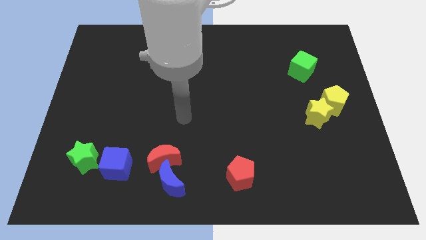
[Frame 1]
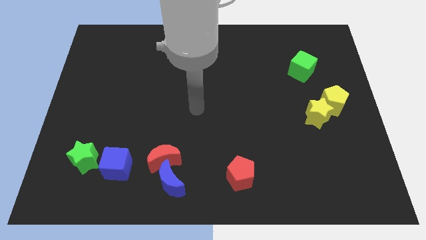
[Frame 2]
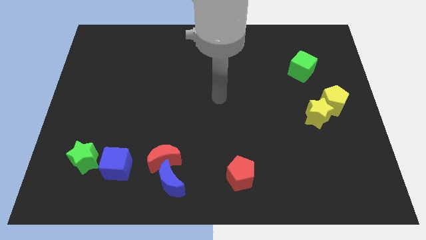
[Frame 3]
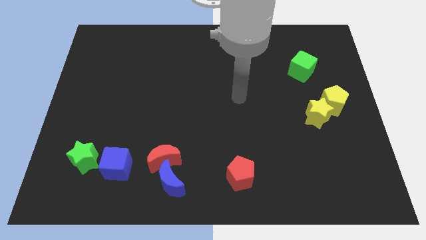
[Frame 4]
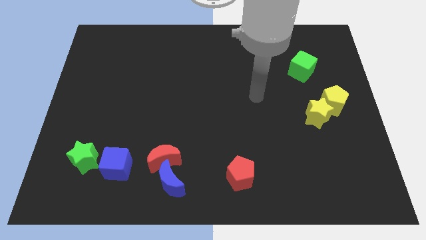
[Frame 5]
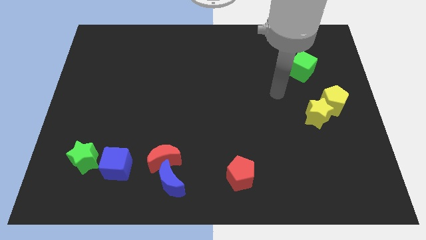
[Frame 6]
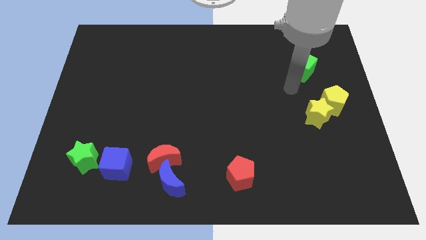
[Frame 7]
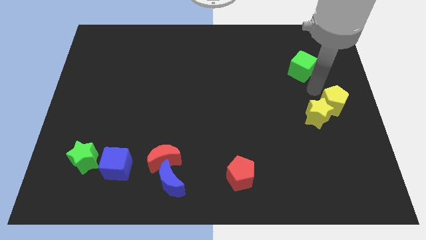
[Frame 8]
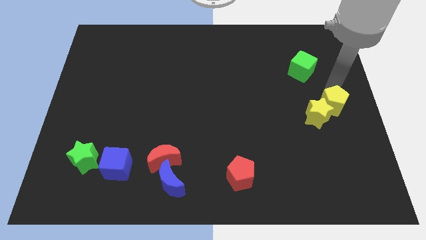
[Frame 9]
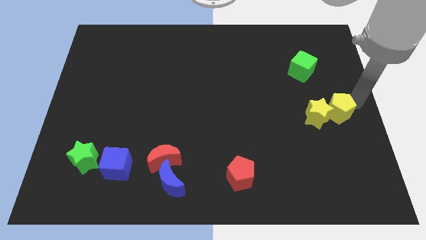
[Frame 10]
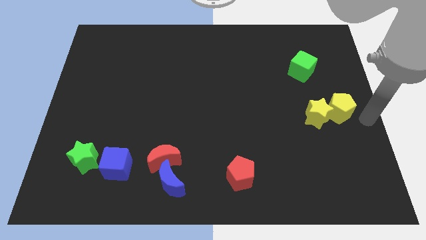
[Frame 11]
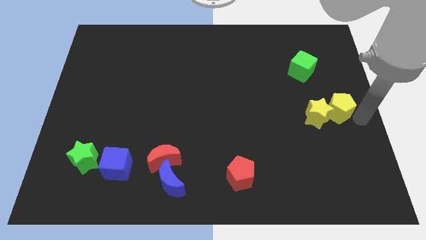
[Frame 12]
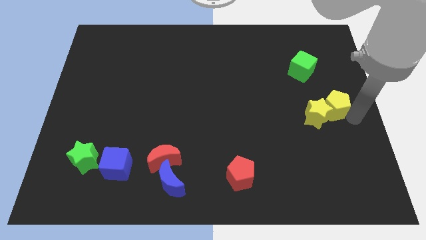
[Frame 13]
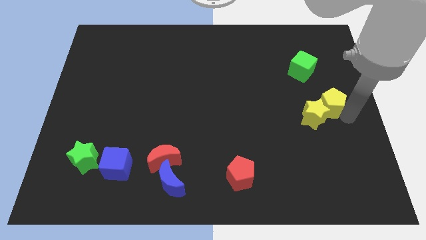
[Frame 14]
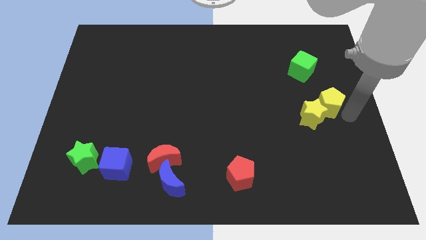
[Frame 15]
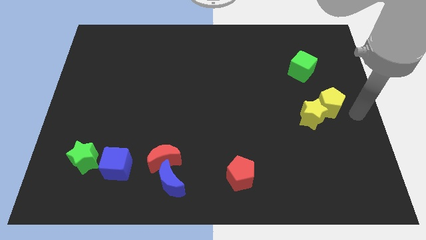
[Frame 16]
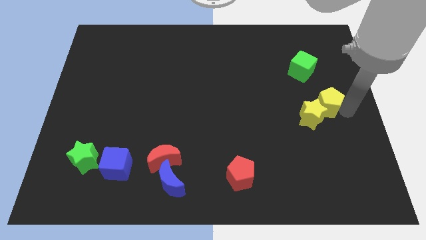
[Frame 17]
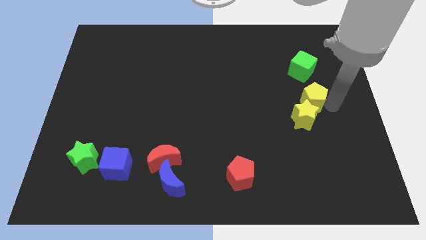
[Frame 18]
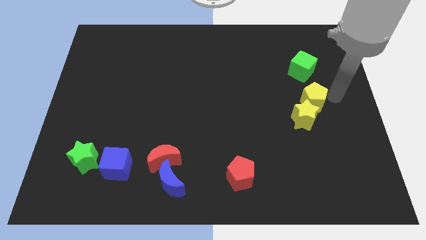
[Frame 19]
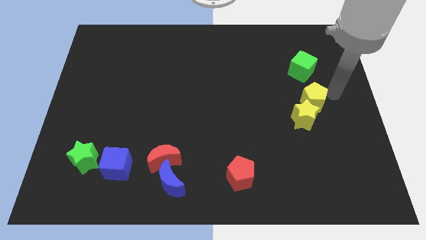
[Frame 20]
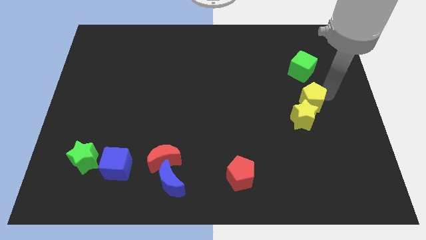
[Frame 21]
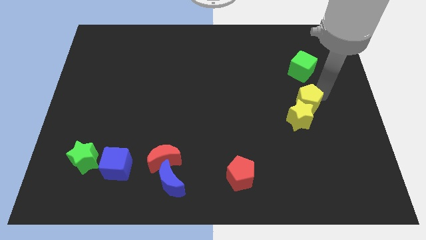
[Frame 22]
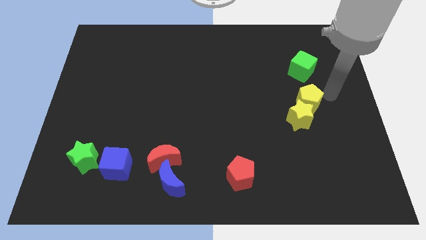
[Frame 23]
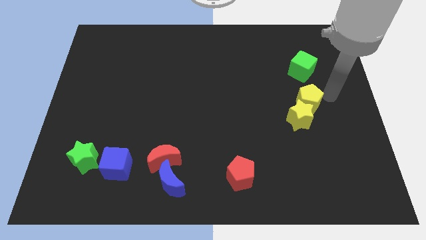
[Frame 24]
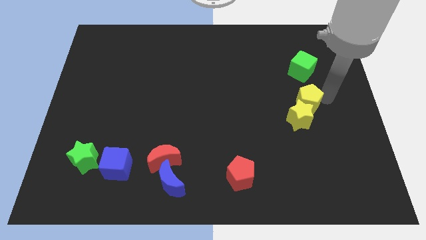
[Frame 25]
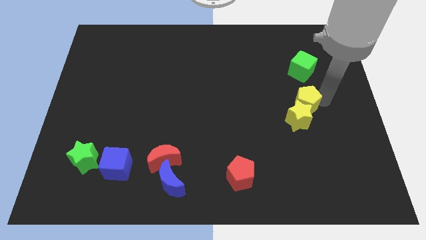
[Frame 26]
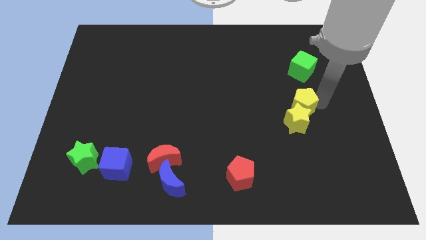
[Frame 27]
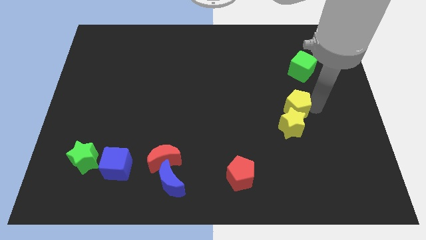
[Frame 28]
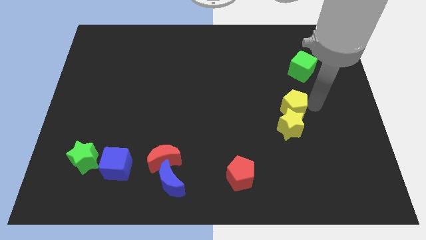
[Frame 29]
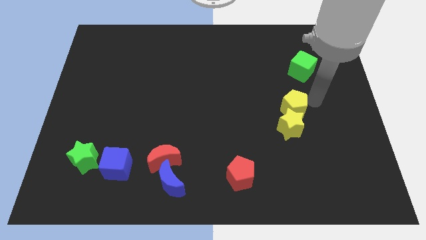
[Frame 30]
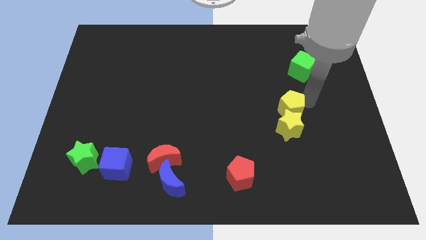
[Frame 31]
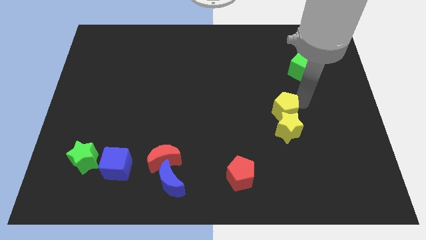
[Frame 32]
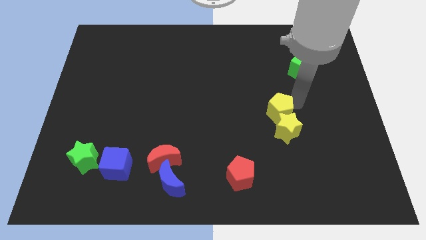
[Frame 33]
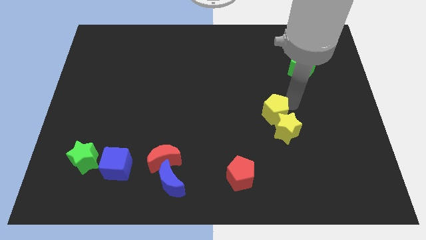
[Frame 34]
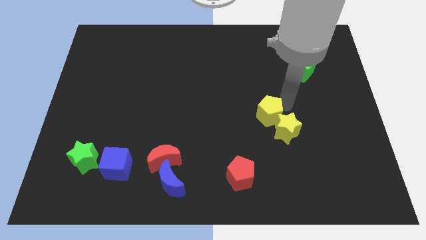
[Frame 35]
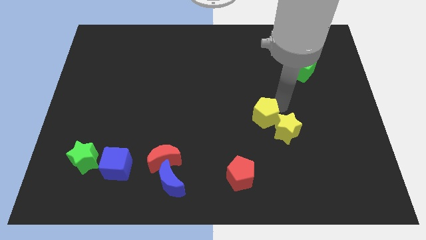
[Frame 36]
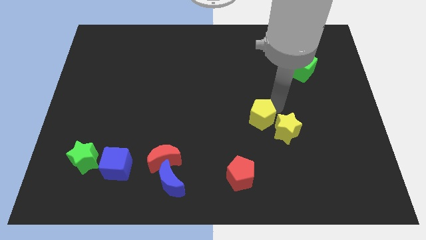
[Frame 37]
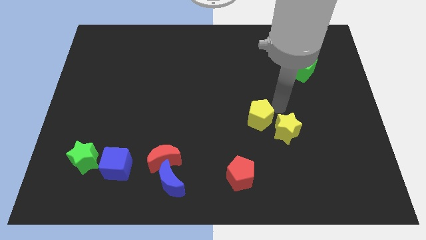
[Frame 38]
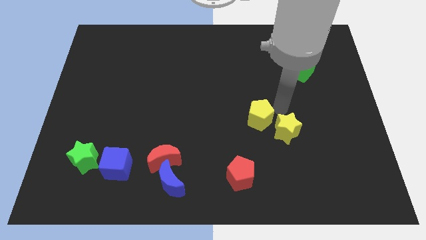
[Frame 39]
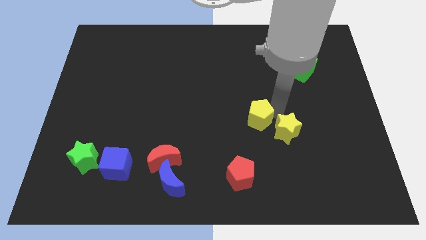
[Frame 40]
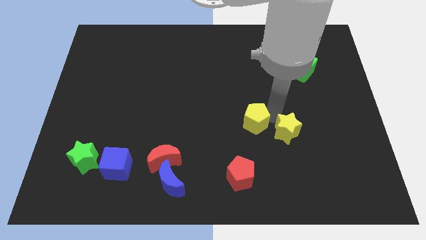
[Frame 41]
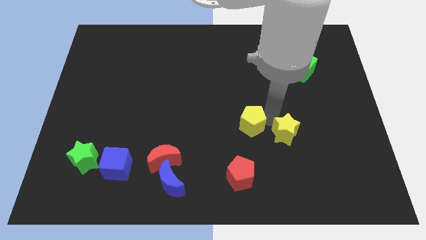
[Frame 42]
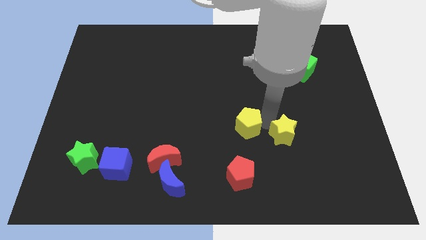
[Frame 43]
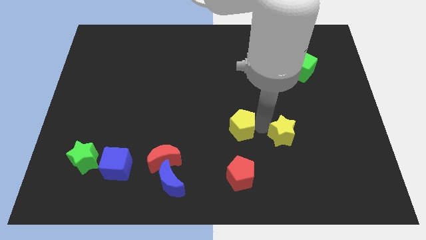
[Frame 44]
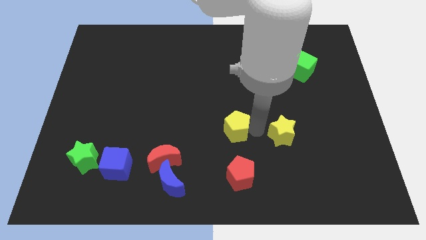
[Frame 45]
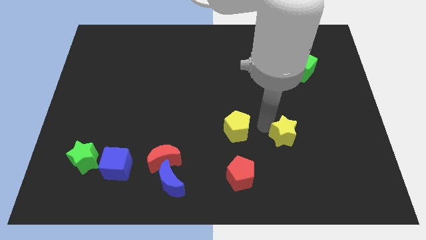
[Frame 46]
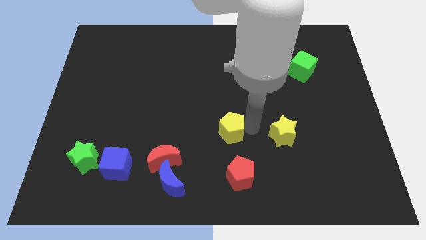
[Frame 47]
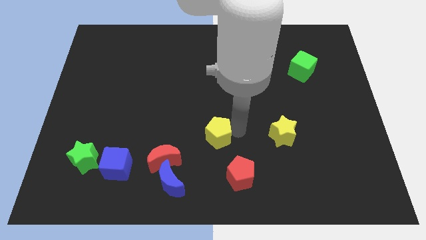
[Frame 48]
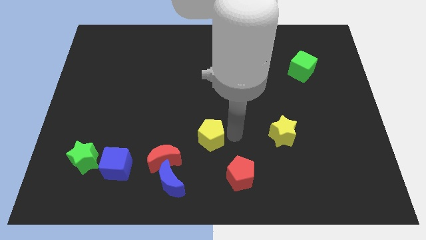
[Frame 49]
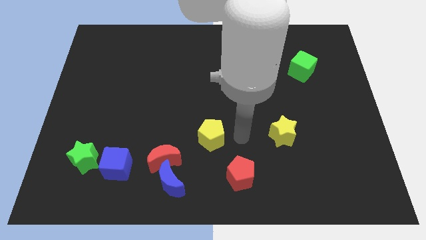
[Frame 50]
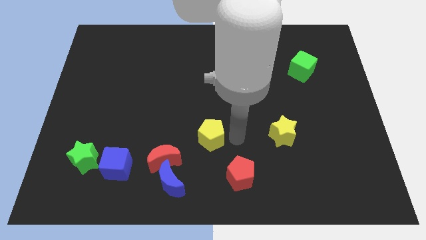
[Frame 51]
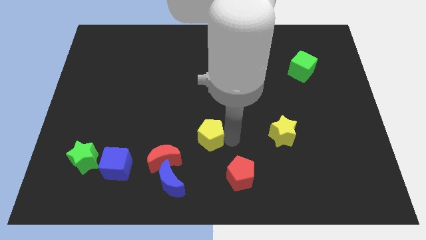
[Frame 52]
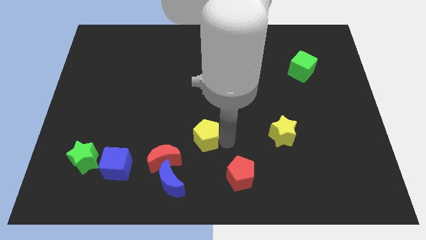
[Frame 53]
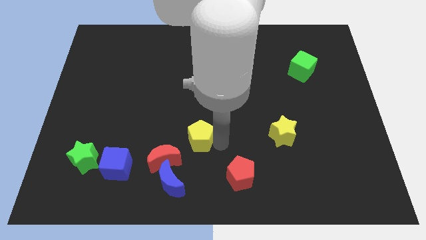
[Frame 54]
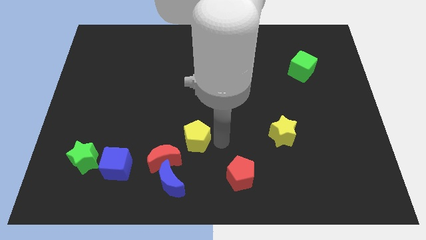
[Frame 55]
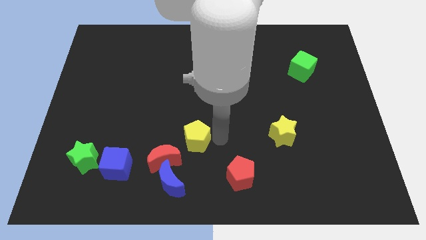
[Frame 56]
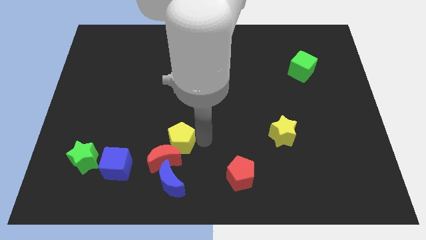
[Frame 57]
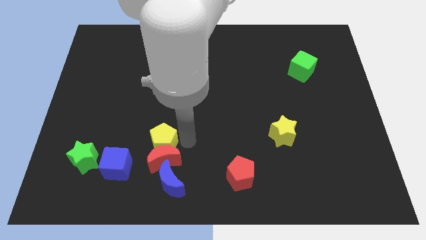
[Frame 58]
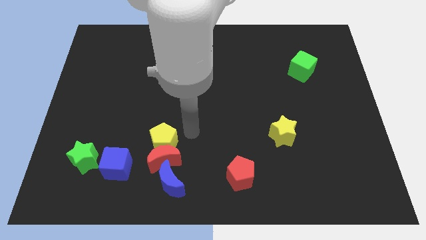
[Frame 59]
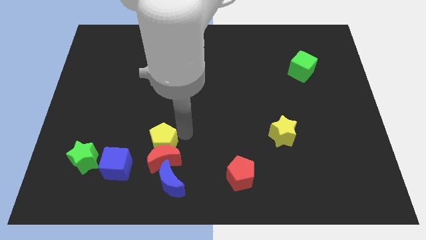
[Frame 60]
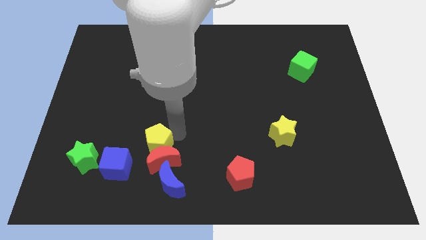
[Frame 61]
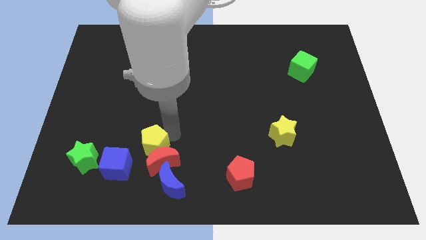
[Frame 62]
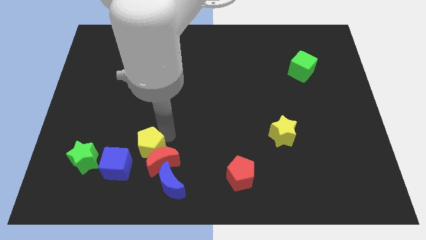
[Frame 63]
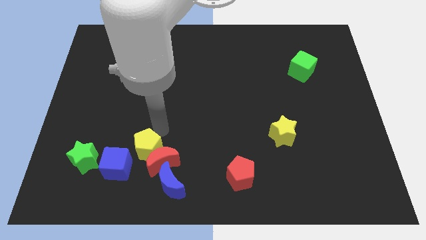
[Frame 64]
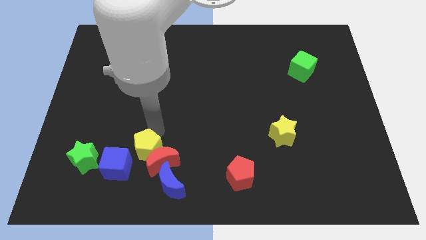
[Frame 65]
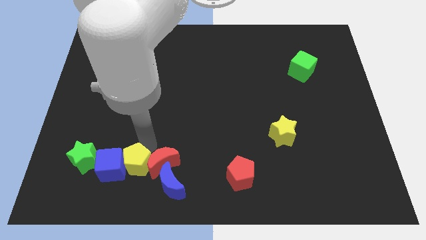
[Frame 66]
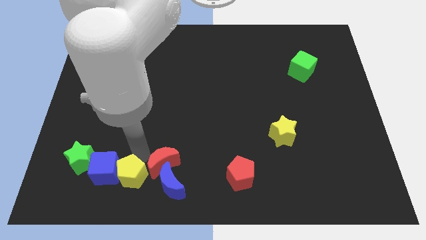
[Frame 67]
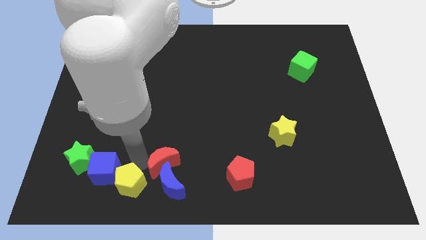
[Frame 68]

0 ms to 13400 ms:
move the yellow pentagon to the bottom right of the green star
